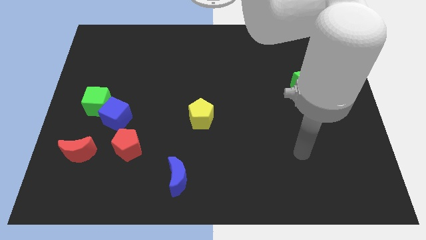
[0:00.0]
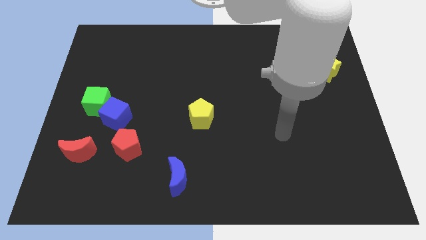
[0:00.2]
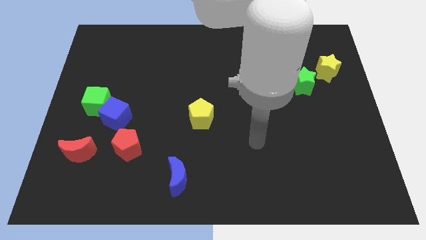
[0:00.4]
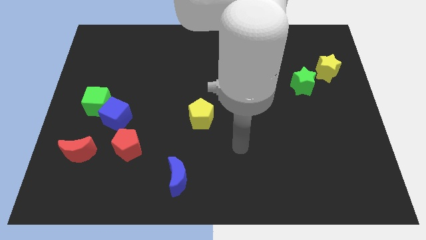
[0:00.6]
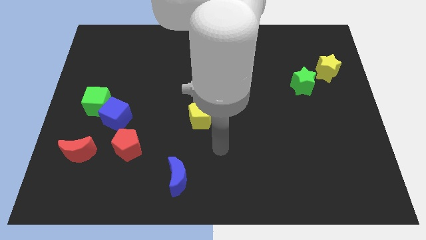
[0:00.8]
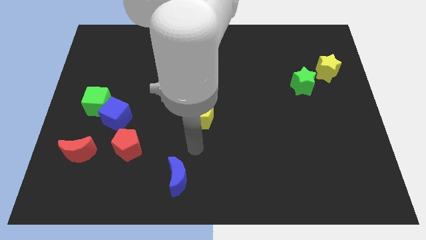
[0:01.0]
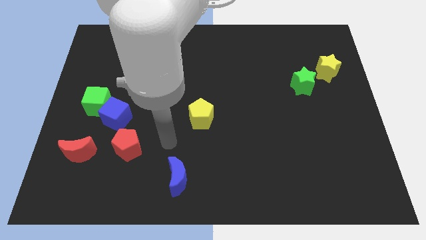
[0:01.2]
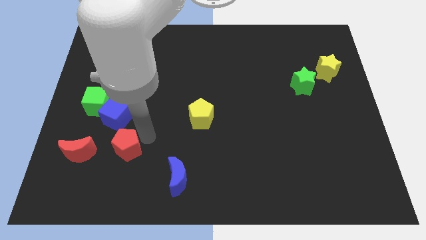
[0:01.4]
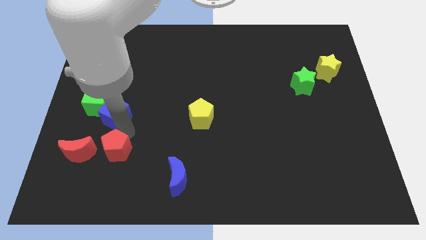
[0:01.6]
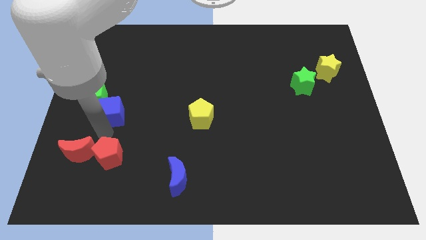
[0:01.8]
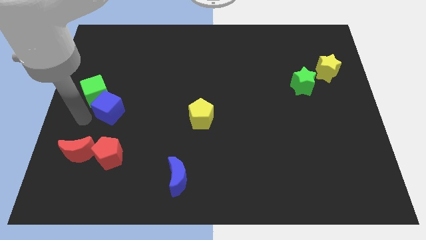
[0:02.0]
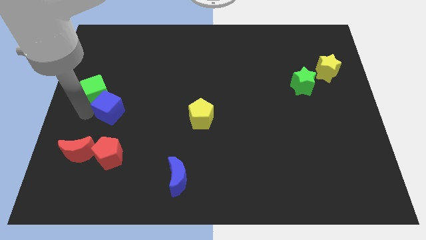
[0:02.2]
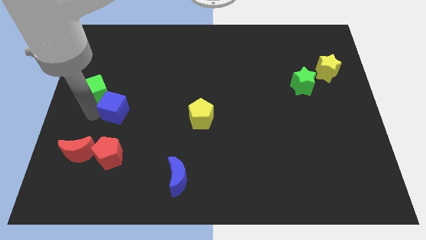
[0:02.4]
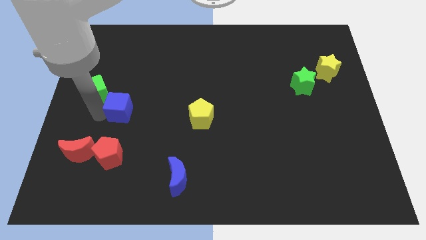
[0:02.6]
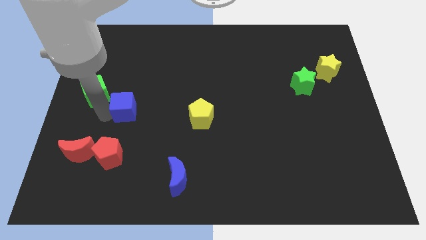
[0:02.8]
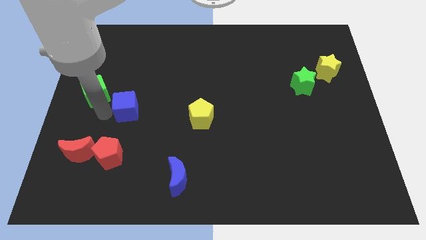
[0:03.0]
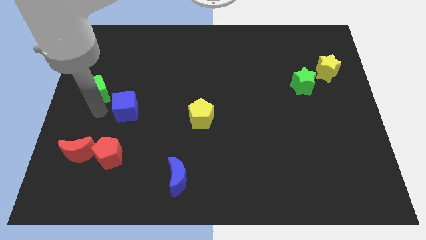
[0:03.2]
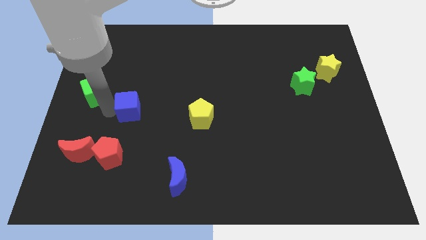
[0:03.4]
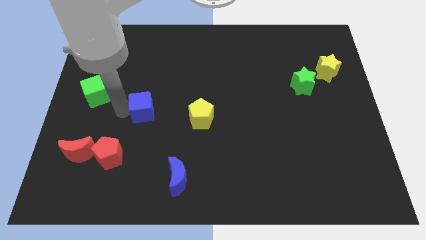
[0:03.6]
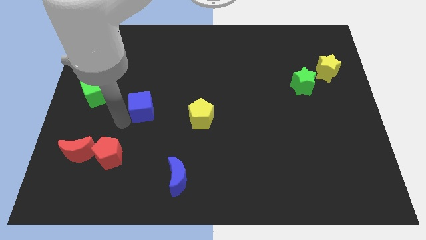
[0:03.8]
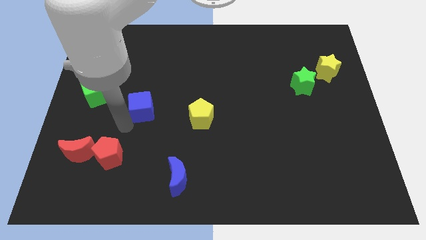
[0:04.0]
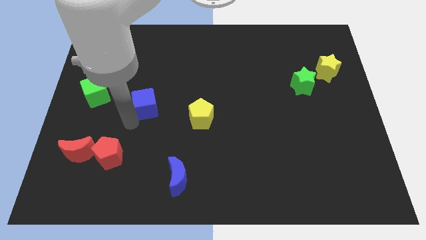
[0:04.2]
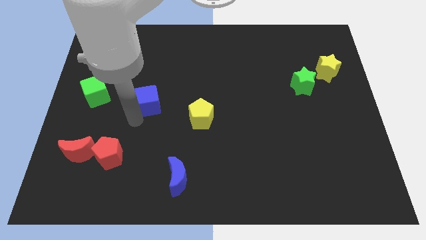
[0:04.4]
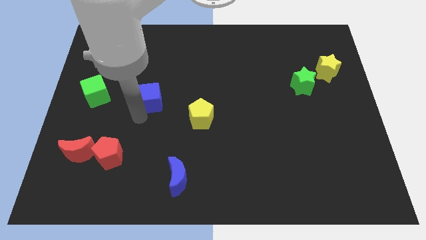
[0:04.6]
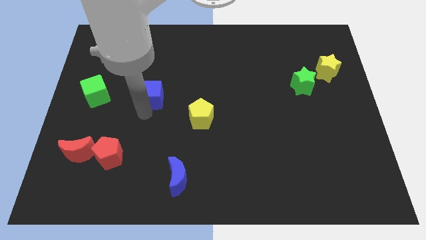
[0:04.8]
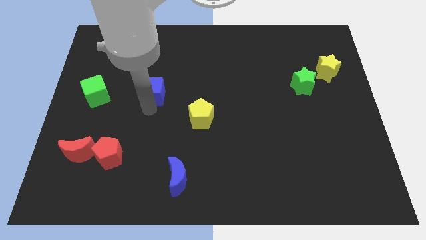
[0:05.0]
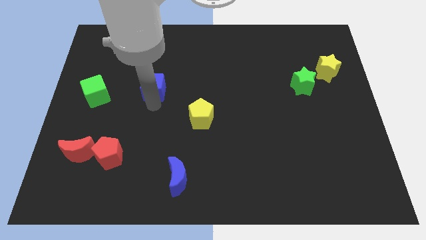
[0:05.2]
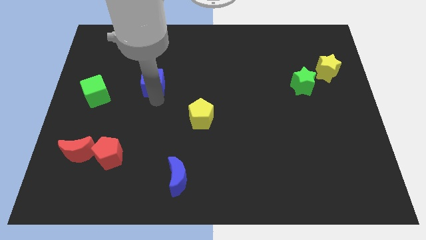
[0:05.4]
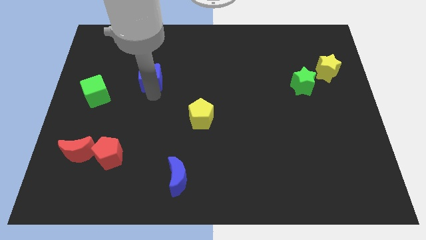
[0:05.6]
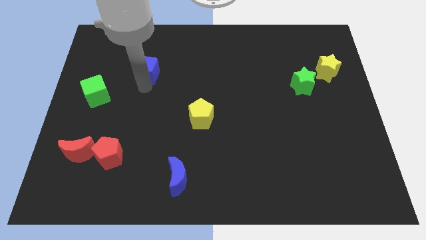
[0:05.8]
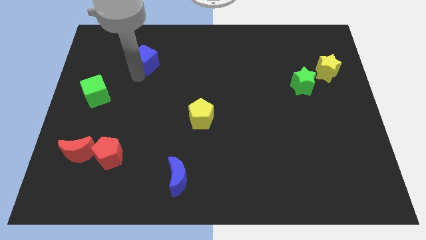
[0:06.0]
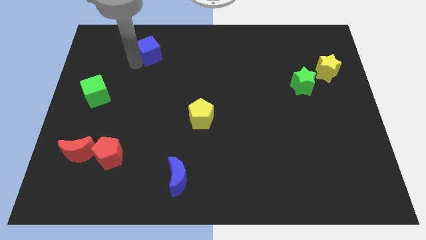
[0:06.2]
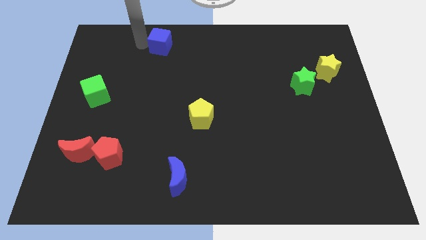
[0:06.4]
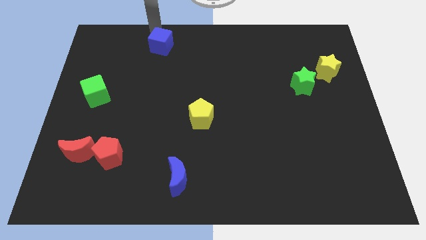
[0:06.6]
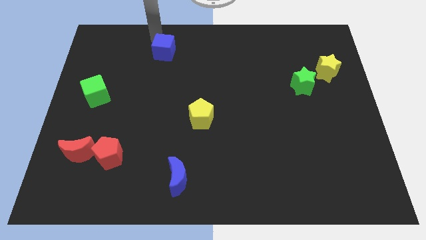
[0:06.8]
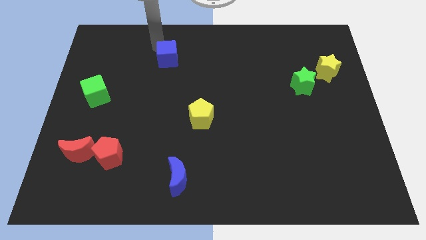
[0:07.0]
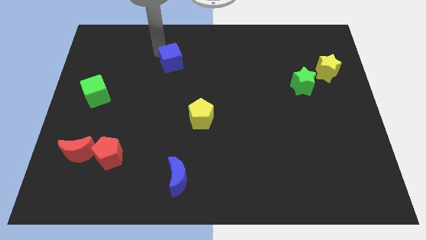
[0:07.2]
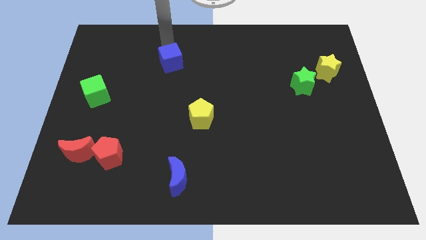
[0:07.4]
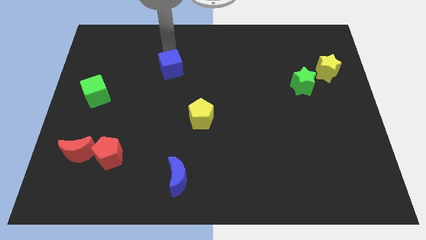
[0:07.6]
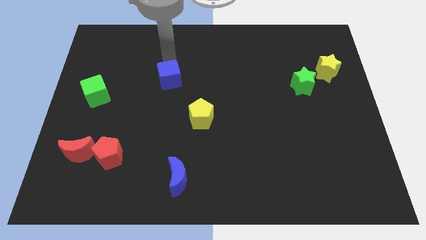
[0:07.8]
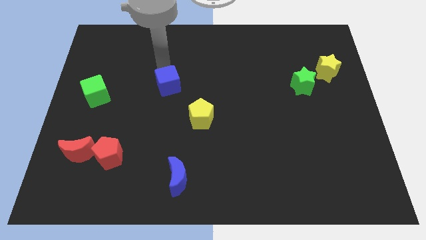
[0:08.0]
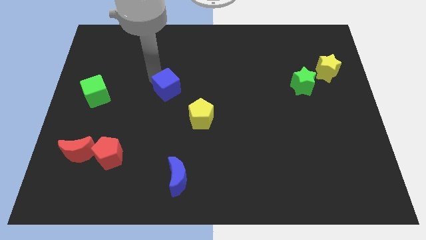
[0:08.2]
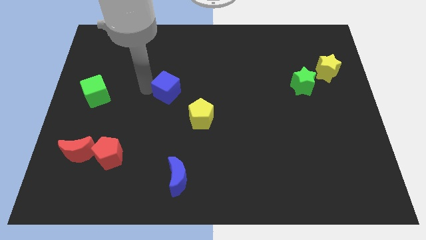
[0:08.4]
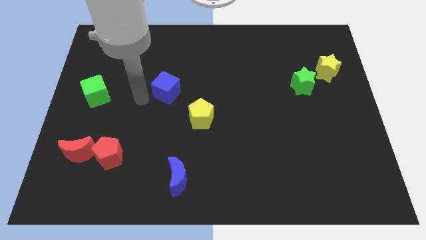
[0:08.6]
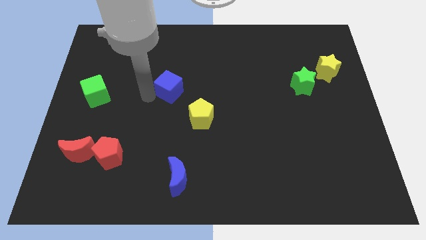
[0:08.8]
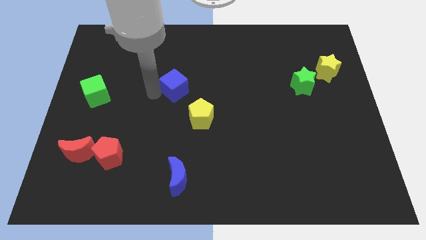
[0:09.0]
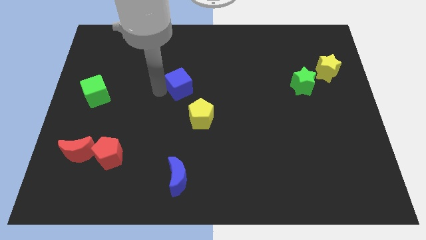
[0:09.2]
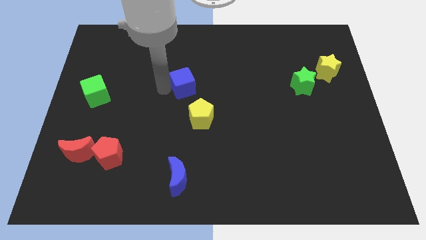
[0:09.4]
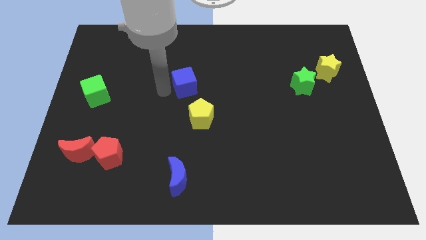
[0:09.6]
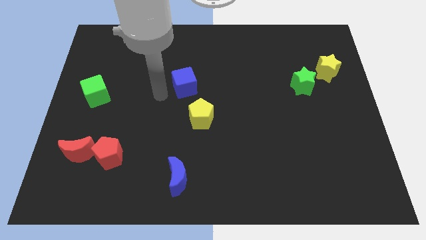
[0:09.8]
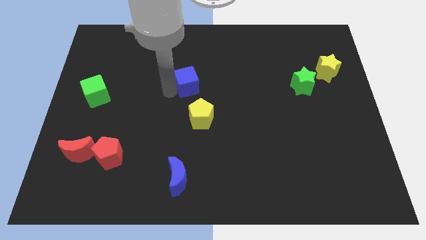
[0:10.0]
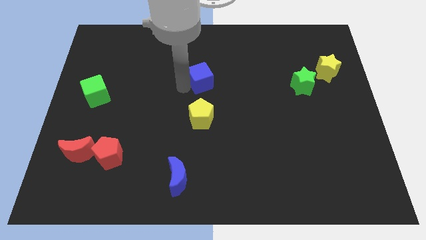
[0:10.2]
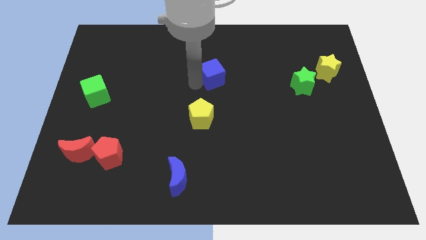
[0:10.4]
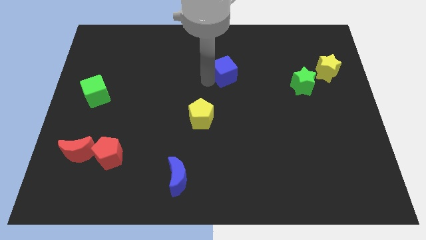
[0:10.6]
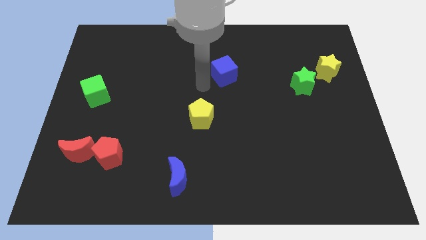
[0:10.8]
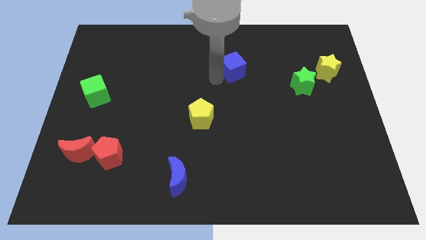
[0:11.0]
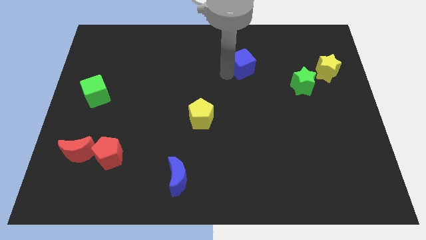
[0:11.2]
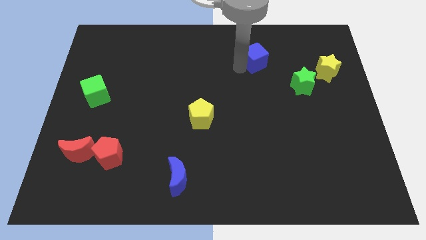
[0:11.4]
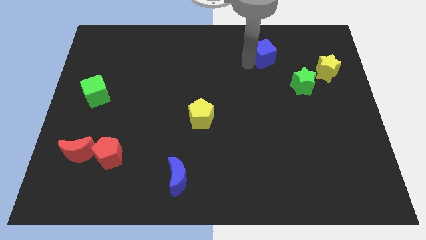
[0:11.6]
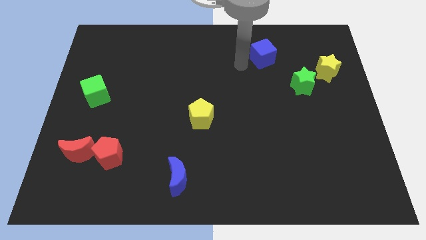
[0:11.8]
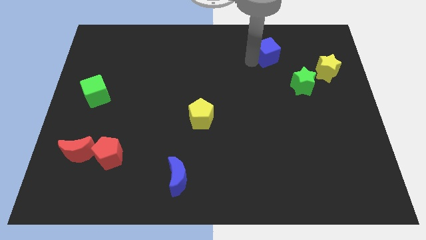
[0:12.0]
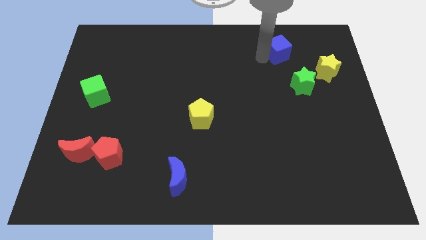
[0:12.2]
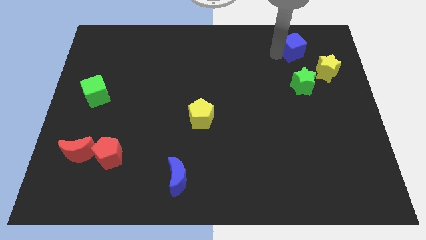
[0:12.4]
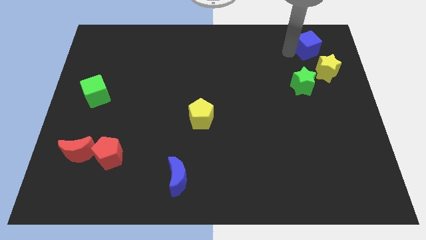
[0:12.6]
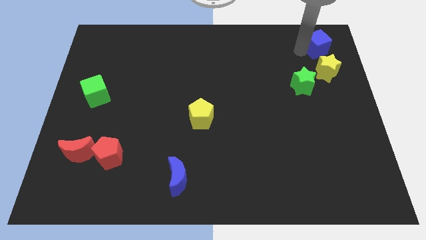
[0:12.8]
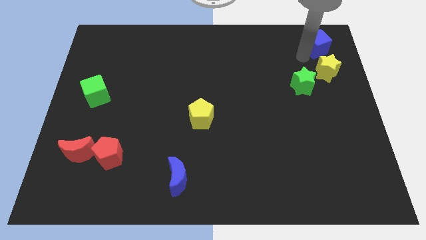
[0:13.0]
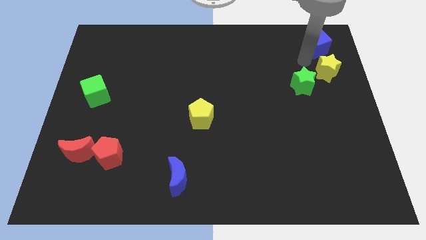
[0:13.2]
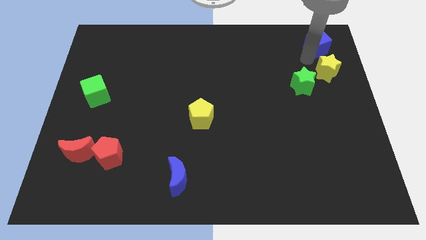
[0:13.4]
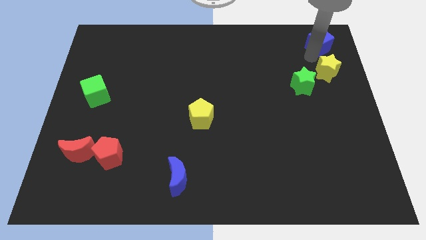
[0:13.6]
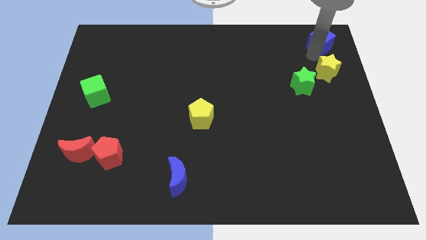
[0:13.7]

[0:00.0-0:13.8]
move the blue cube to the top right
